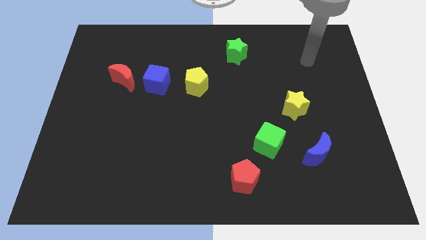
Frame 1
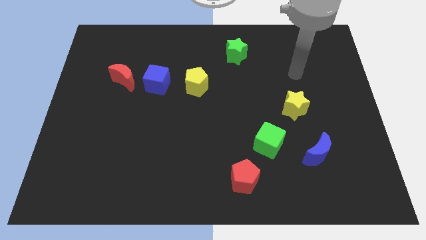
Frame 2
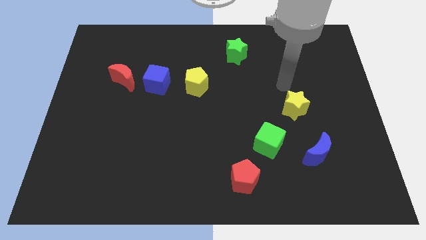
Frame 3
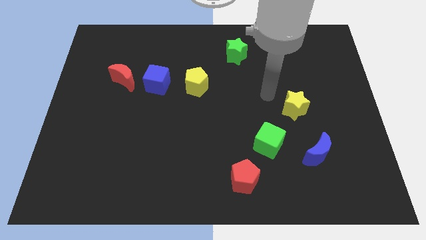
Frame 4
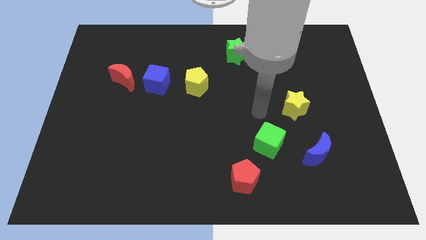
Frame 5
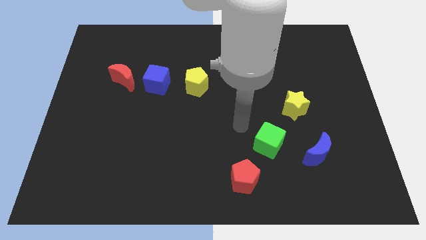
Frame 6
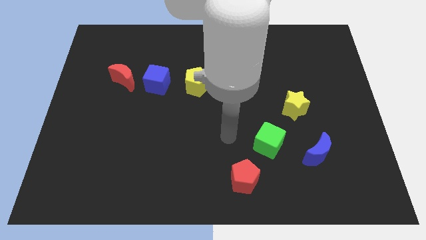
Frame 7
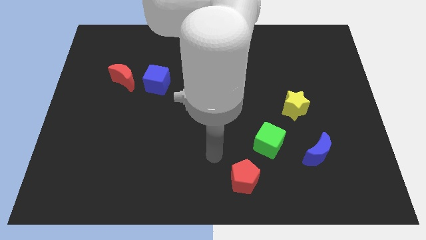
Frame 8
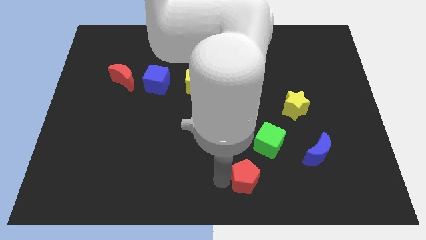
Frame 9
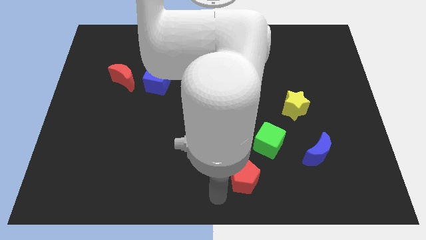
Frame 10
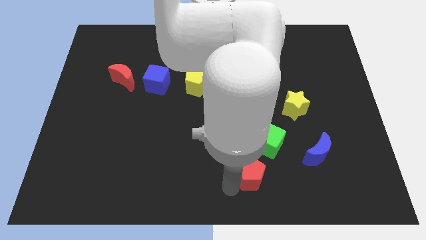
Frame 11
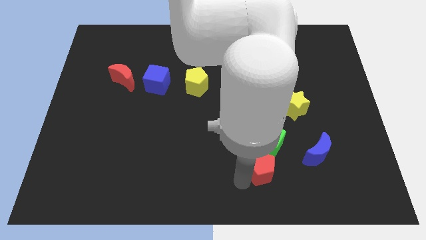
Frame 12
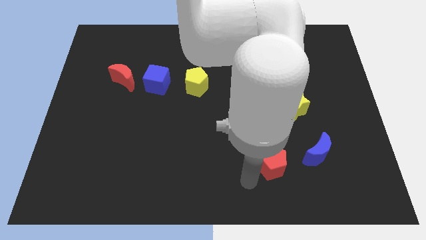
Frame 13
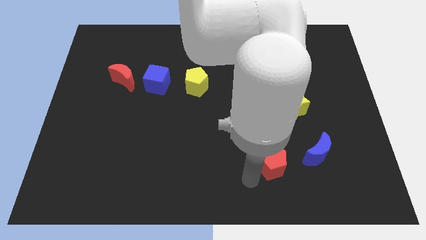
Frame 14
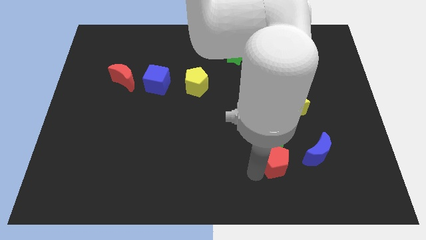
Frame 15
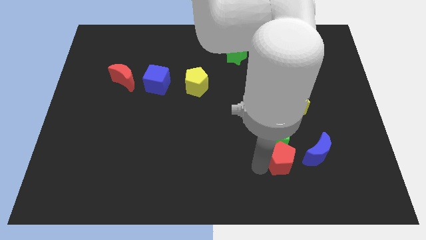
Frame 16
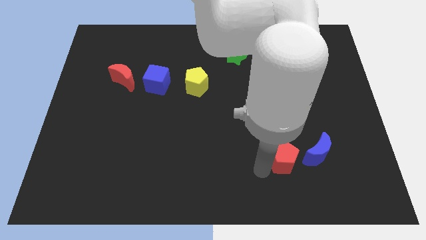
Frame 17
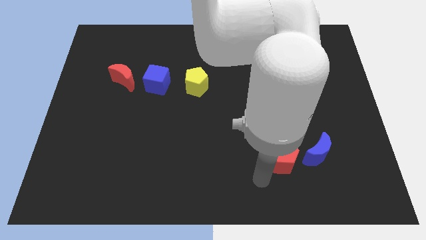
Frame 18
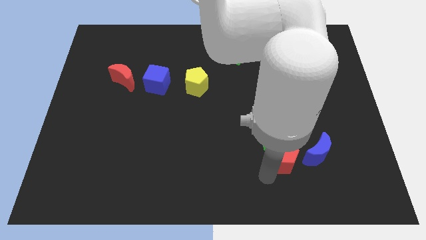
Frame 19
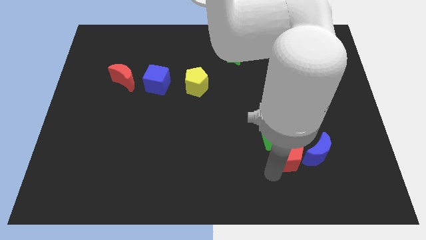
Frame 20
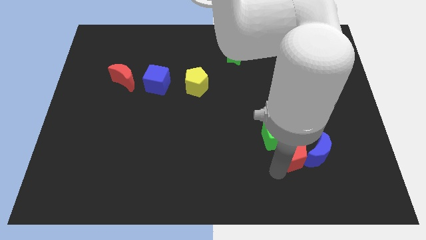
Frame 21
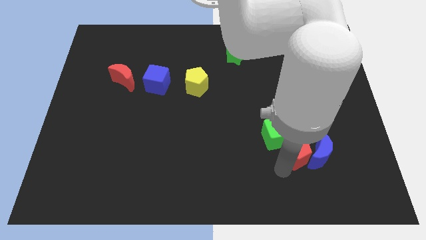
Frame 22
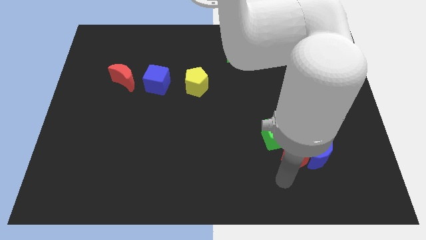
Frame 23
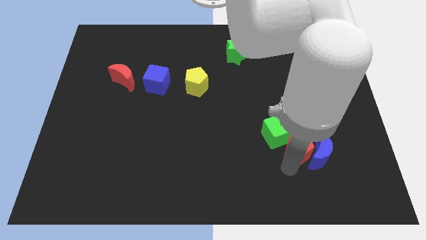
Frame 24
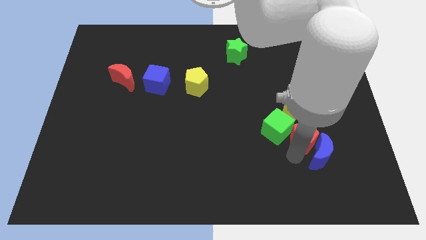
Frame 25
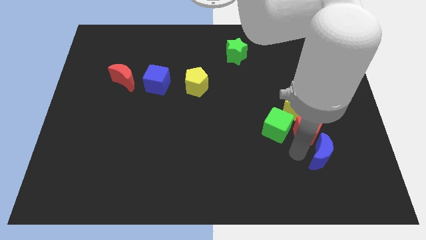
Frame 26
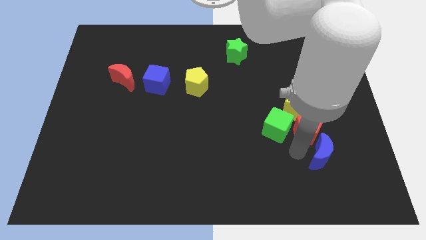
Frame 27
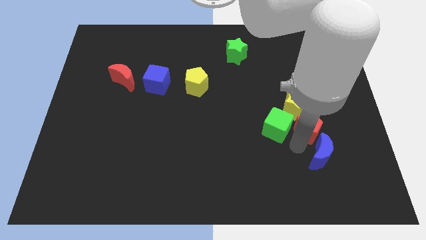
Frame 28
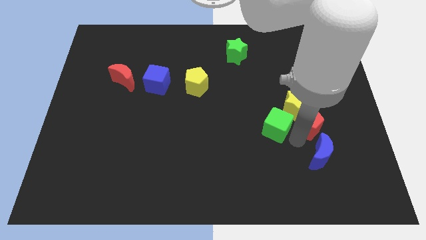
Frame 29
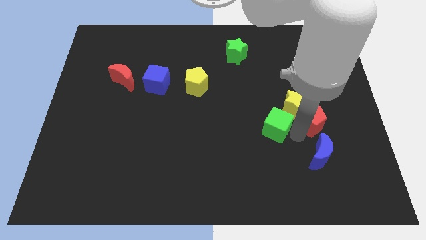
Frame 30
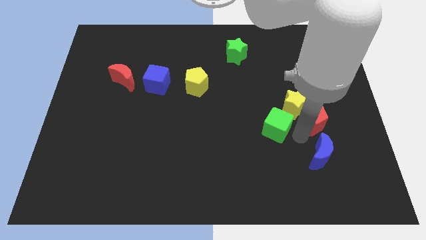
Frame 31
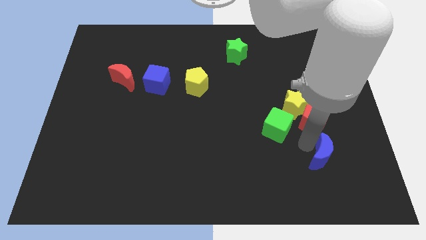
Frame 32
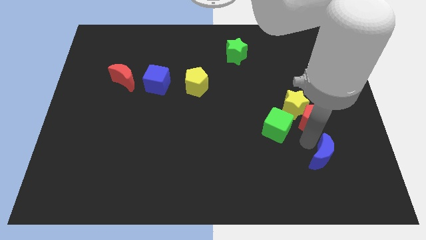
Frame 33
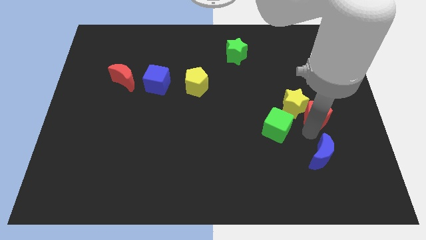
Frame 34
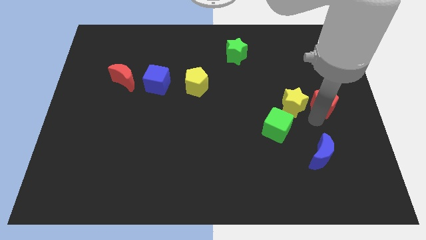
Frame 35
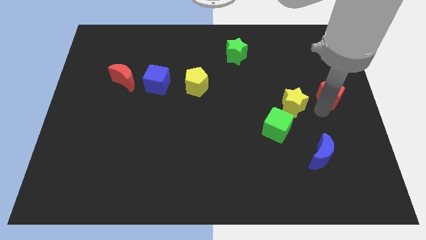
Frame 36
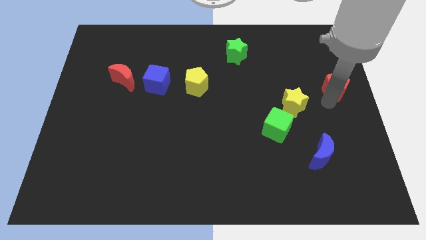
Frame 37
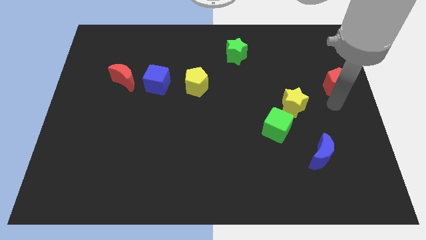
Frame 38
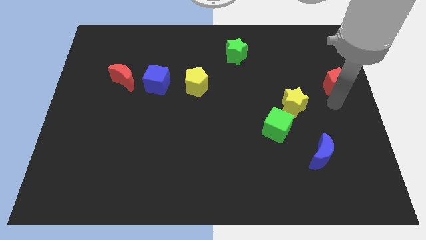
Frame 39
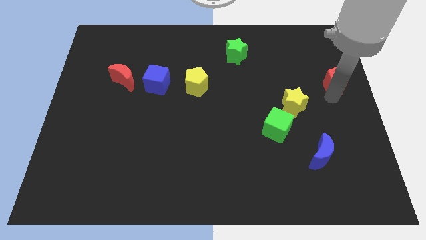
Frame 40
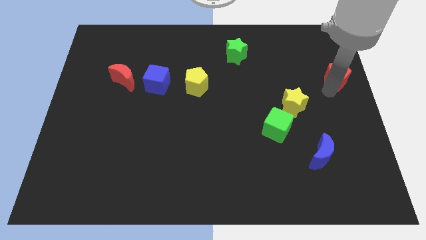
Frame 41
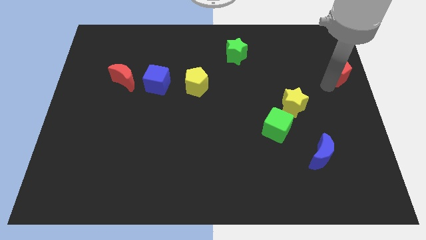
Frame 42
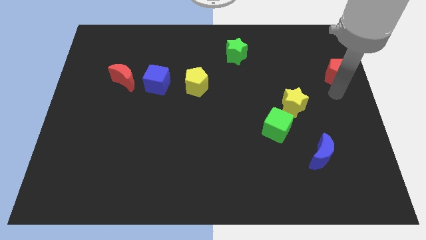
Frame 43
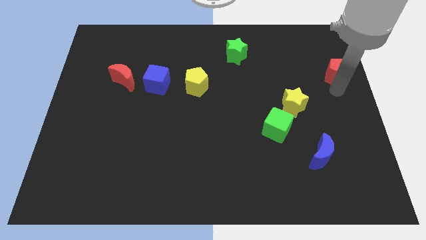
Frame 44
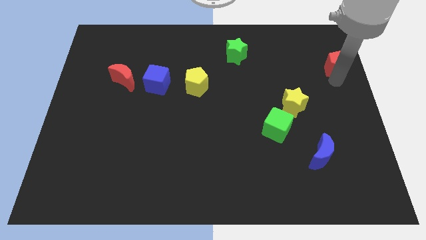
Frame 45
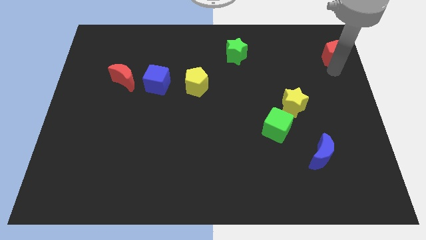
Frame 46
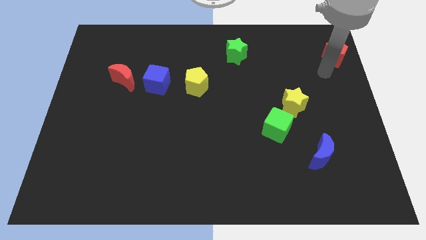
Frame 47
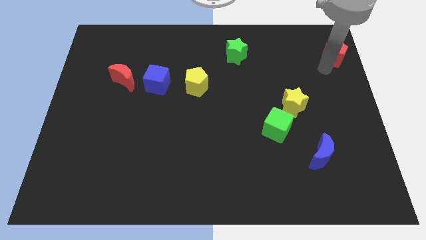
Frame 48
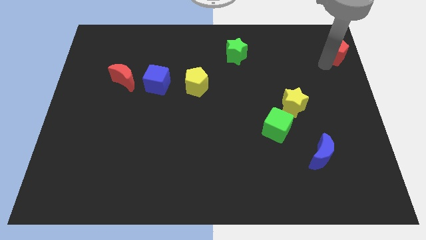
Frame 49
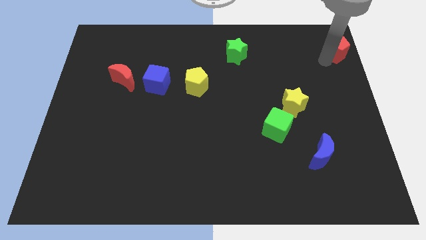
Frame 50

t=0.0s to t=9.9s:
put the red pentagon to the top right

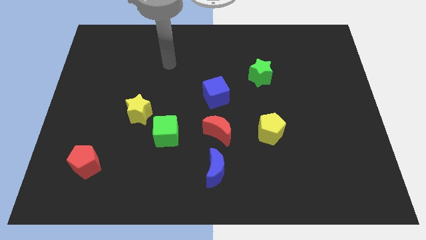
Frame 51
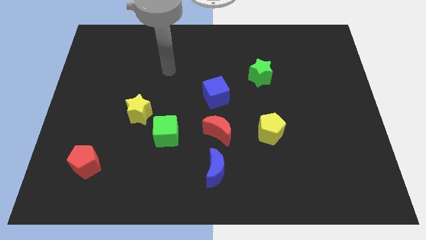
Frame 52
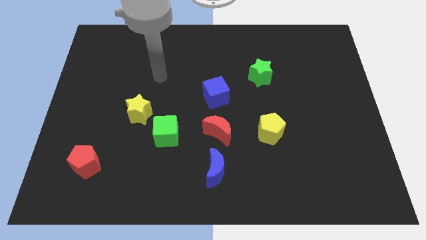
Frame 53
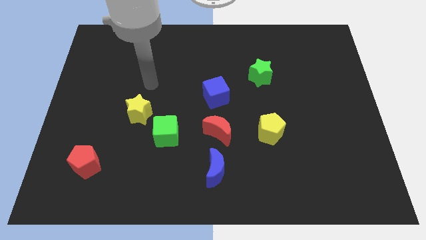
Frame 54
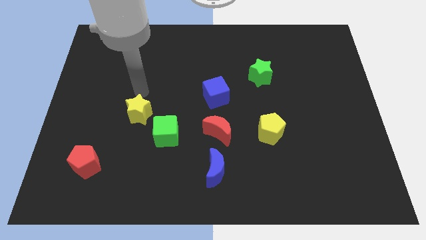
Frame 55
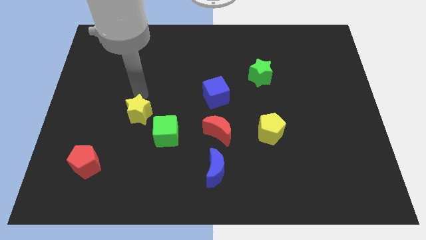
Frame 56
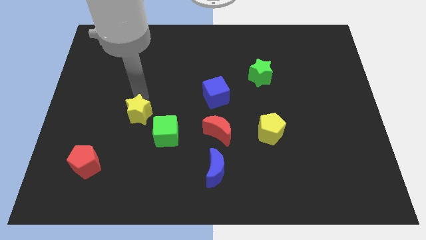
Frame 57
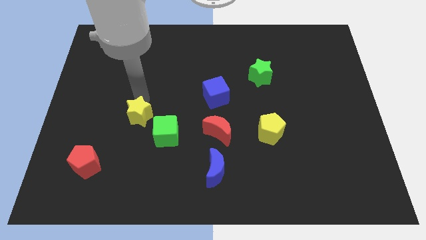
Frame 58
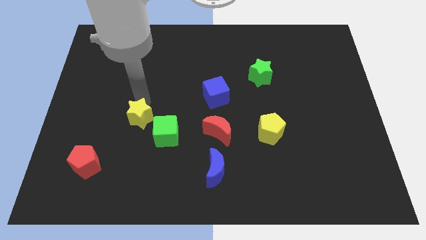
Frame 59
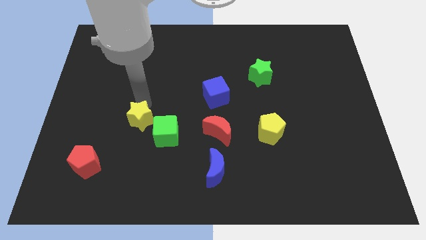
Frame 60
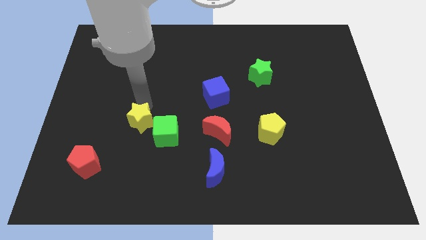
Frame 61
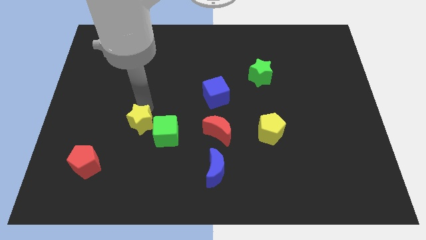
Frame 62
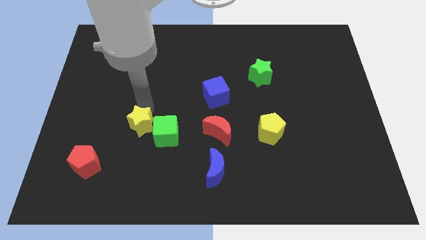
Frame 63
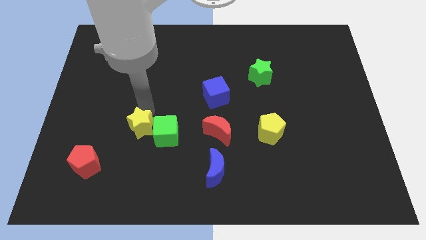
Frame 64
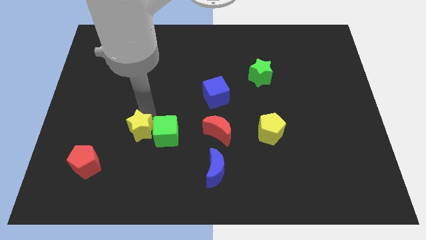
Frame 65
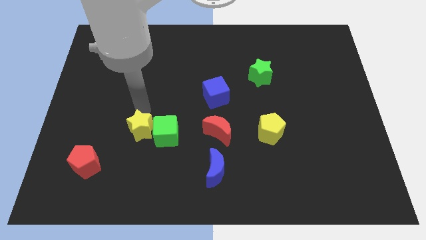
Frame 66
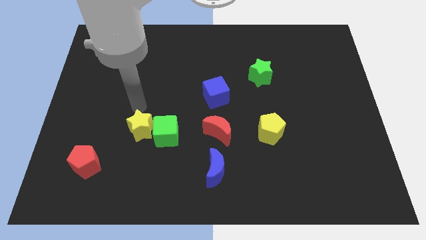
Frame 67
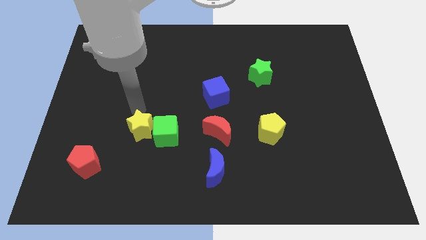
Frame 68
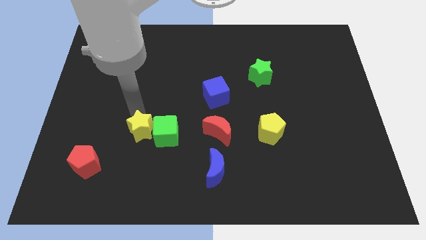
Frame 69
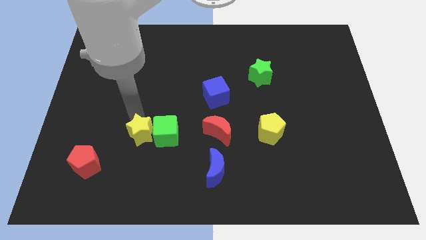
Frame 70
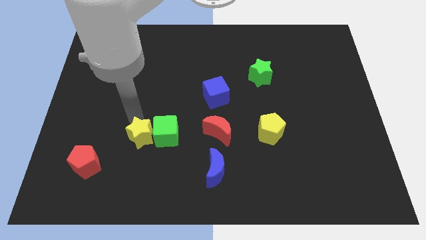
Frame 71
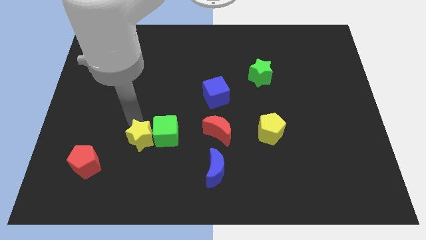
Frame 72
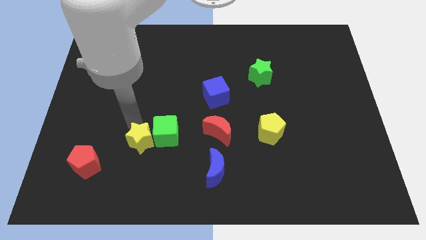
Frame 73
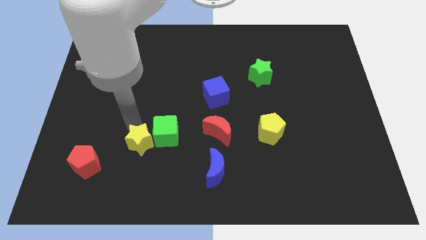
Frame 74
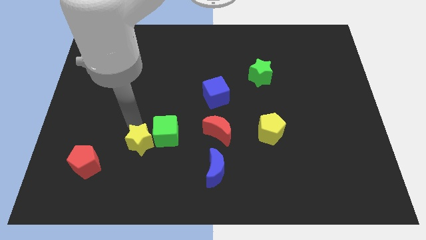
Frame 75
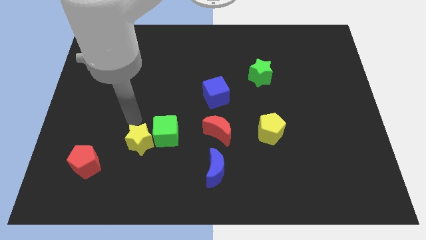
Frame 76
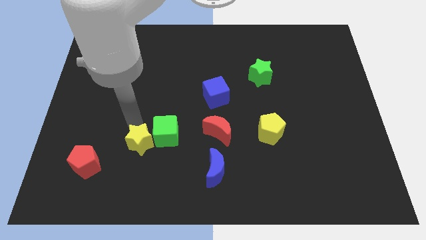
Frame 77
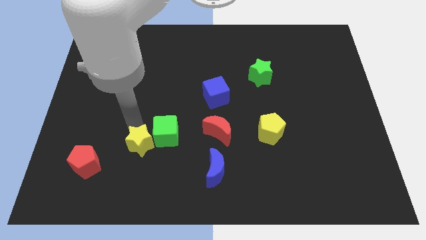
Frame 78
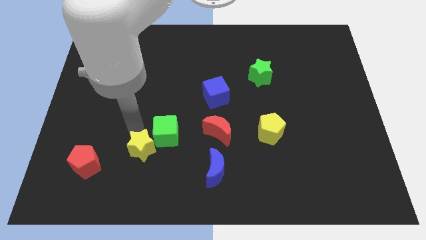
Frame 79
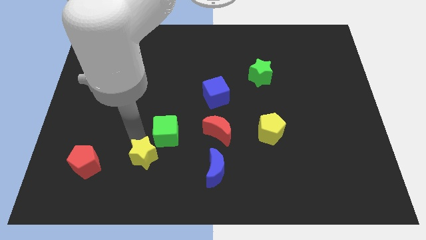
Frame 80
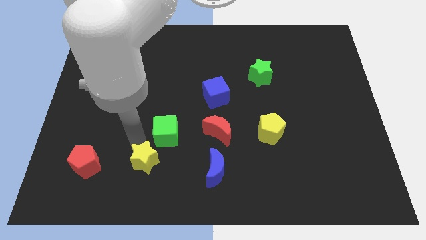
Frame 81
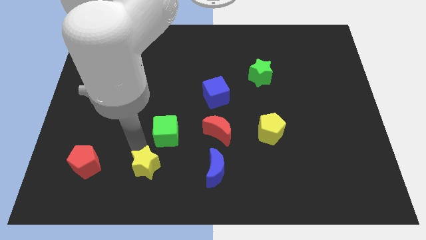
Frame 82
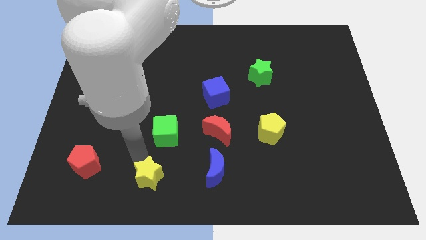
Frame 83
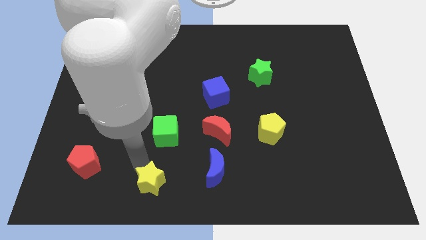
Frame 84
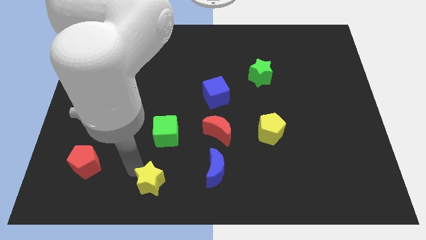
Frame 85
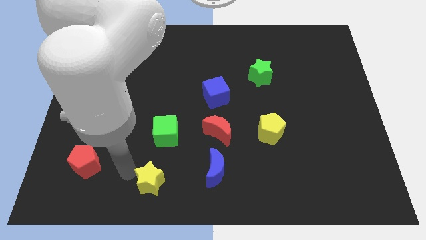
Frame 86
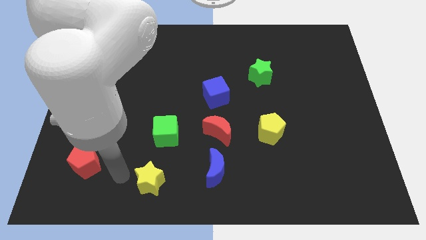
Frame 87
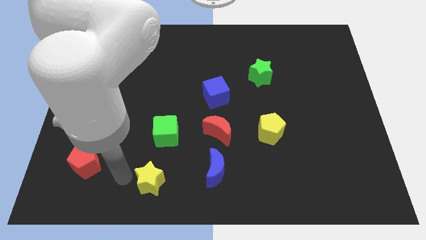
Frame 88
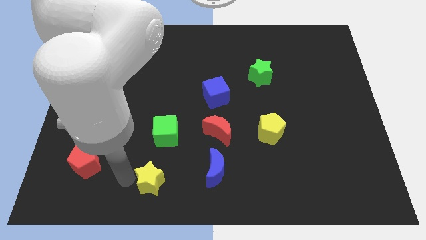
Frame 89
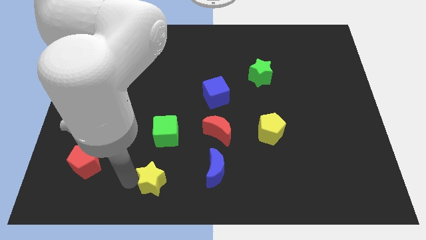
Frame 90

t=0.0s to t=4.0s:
push the yellow star to the bottom side
